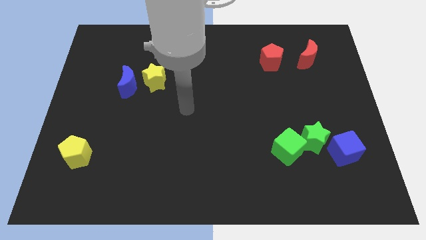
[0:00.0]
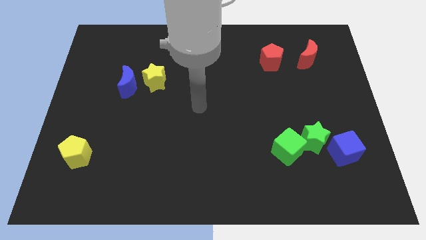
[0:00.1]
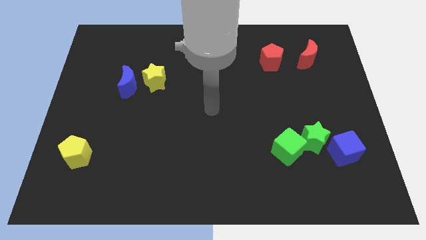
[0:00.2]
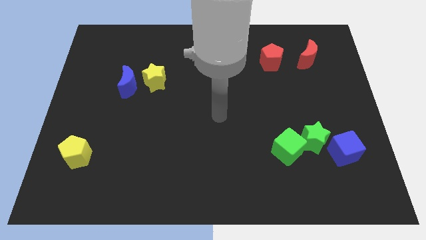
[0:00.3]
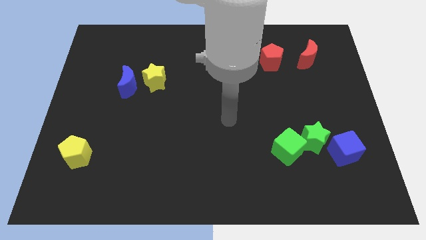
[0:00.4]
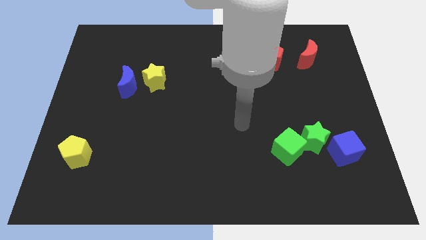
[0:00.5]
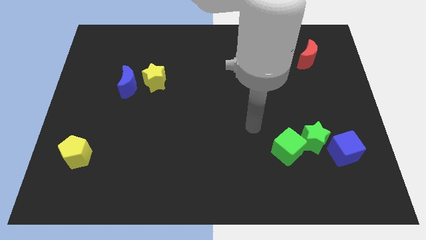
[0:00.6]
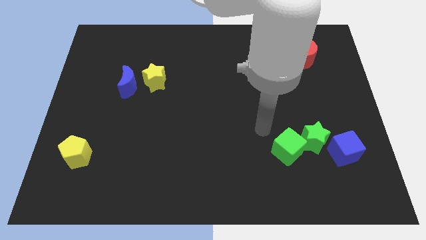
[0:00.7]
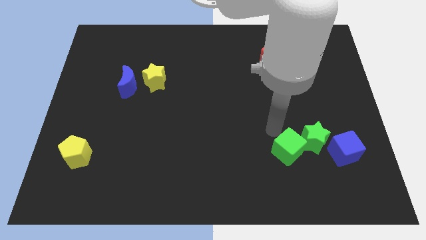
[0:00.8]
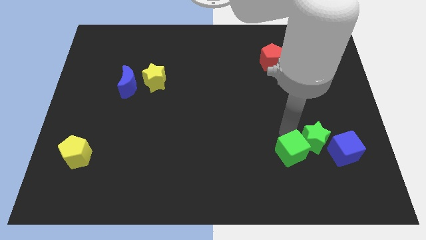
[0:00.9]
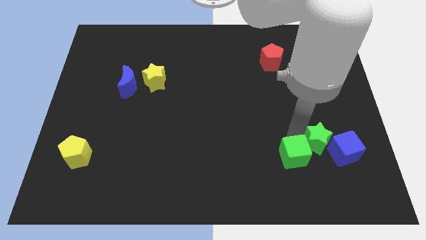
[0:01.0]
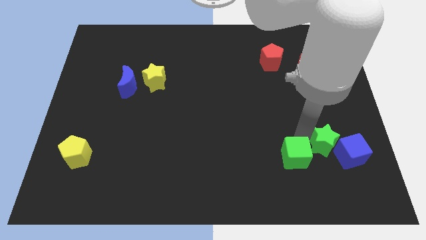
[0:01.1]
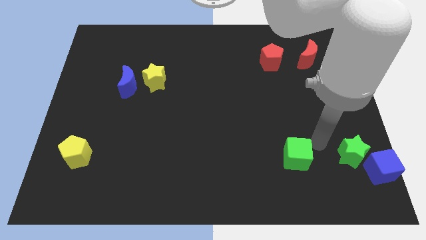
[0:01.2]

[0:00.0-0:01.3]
move the green cube away from the green star

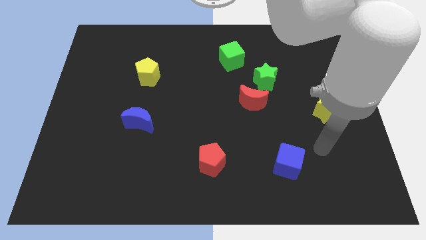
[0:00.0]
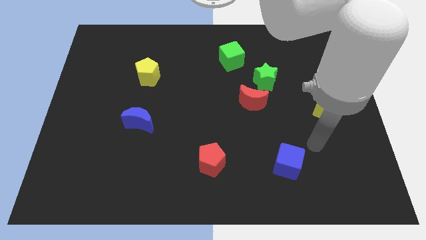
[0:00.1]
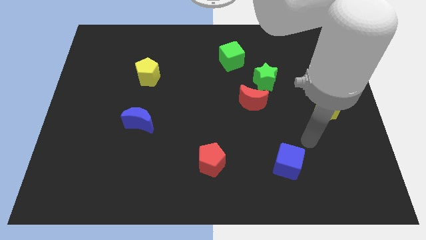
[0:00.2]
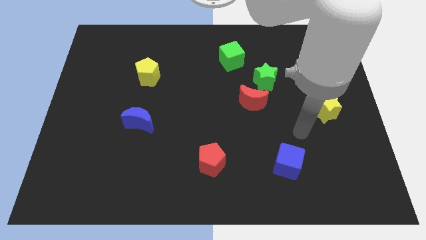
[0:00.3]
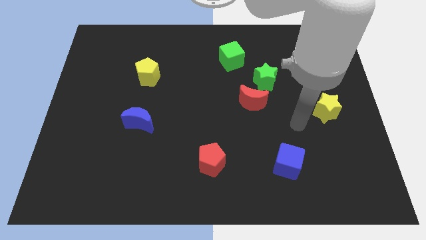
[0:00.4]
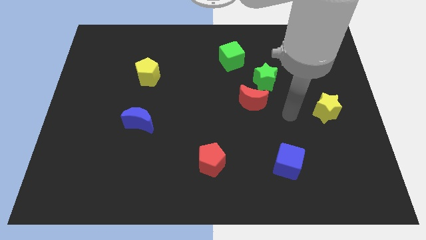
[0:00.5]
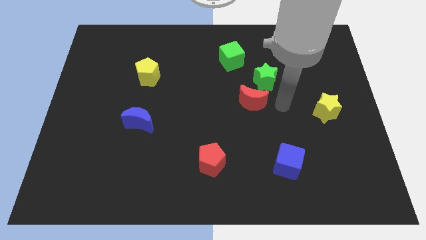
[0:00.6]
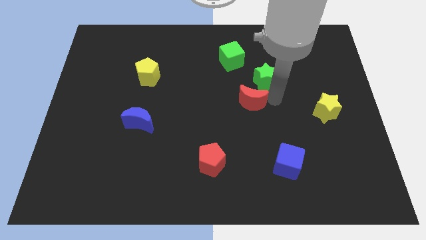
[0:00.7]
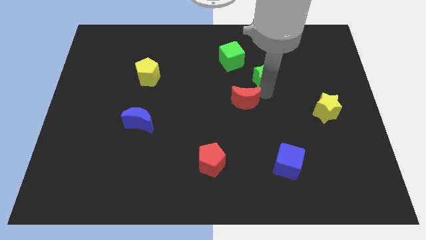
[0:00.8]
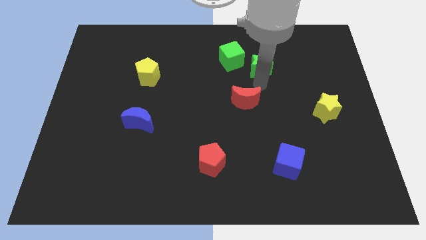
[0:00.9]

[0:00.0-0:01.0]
separate the red moon from the green star

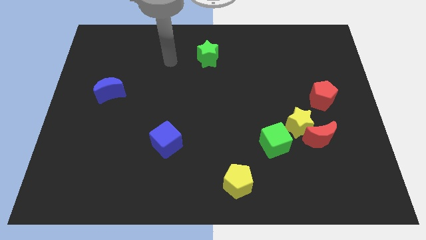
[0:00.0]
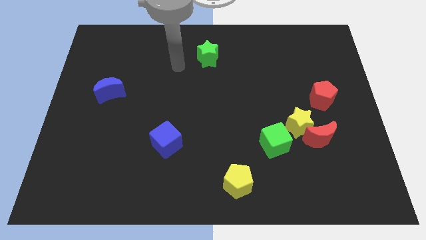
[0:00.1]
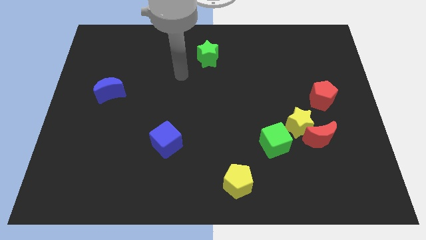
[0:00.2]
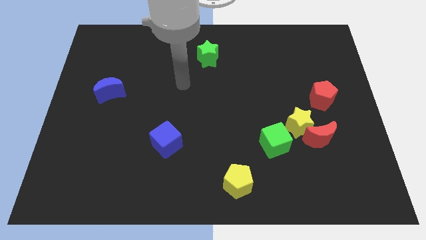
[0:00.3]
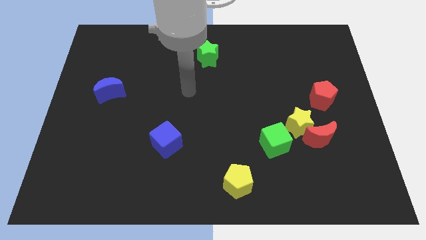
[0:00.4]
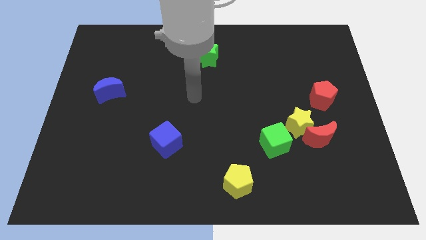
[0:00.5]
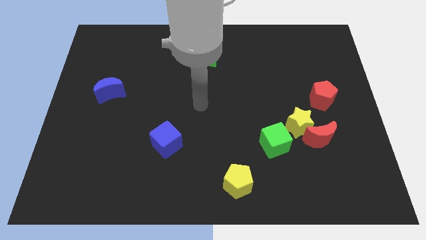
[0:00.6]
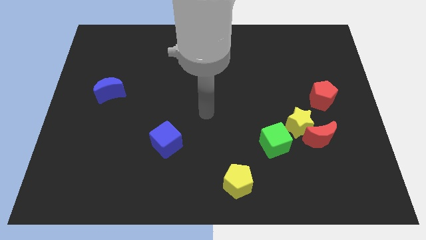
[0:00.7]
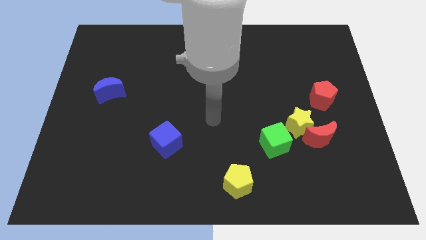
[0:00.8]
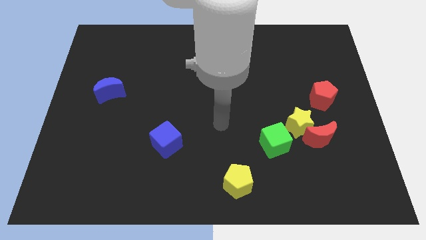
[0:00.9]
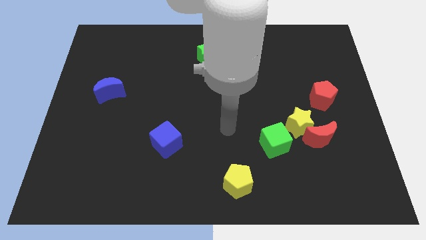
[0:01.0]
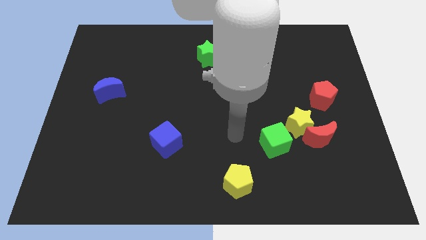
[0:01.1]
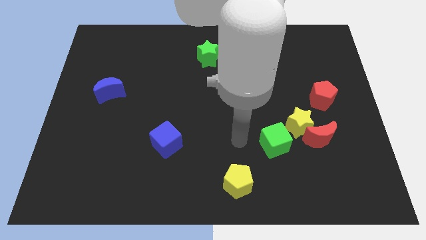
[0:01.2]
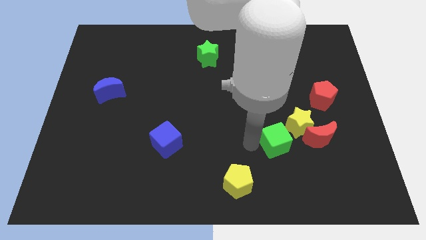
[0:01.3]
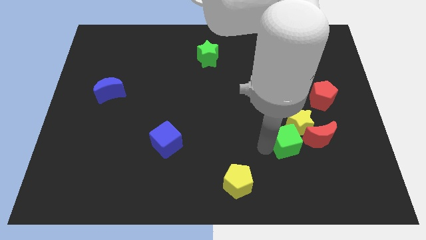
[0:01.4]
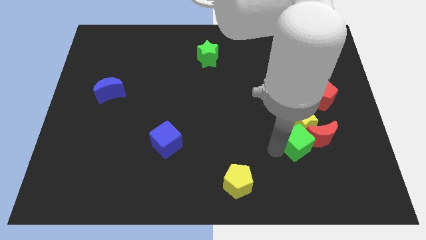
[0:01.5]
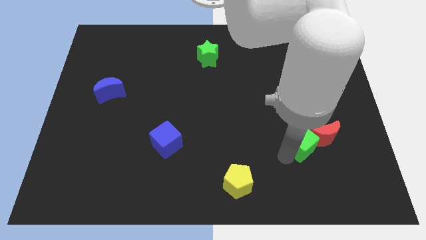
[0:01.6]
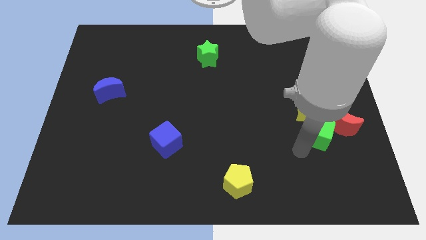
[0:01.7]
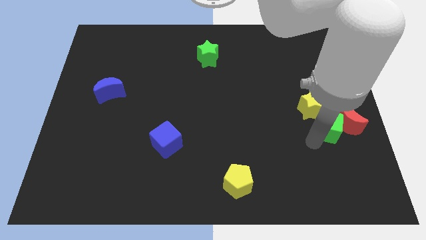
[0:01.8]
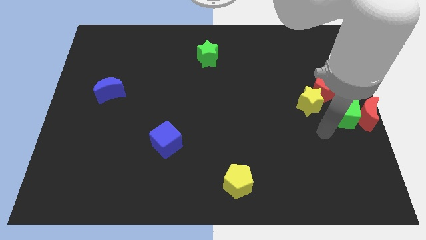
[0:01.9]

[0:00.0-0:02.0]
separate the yellow star from the red moon and green cube

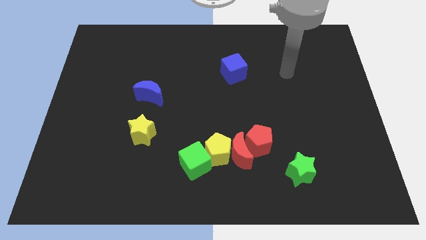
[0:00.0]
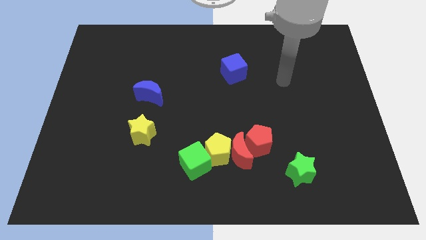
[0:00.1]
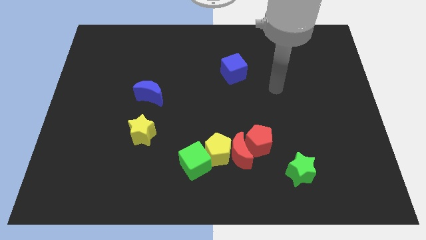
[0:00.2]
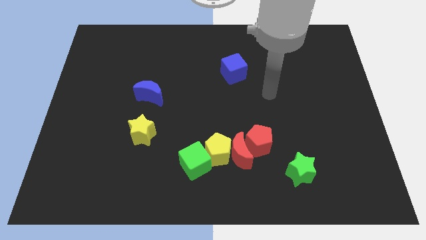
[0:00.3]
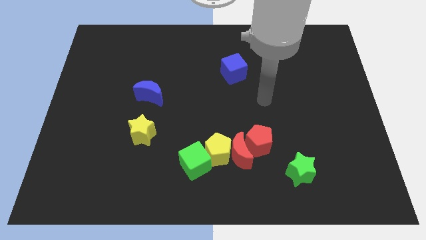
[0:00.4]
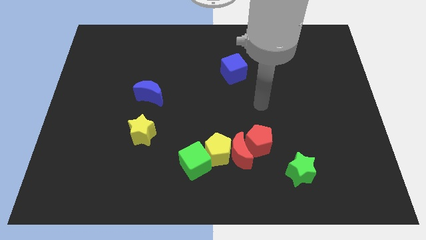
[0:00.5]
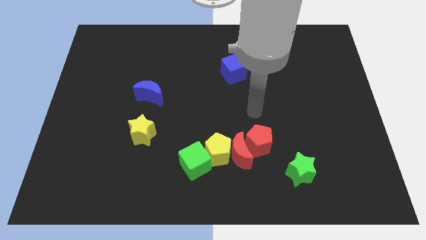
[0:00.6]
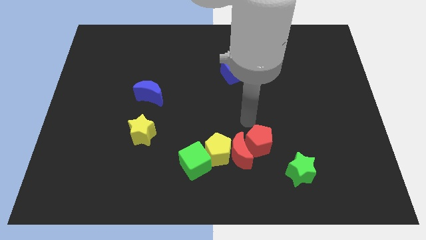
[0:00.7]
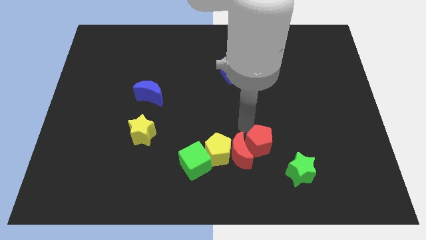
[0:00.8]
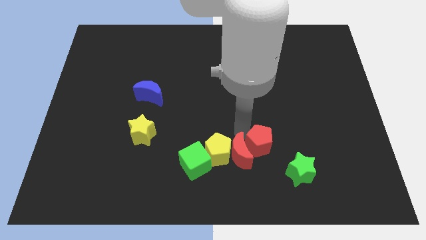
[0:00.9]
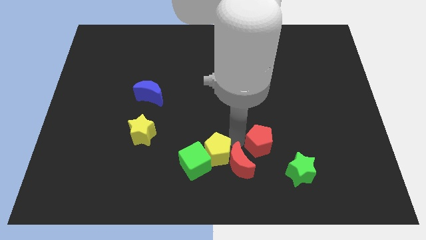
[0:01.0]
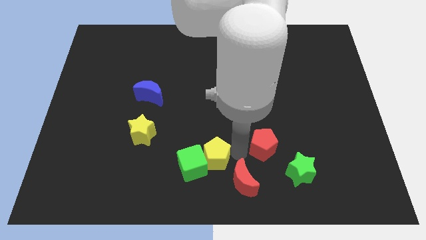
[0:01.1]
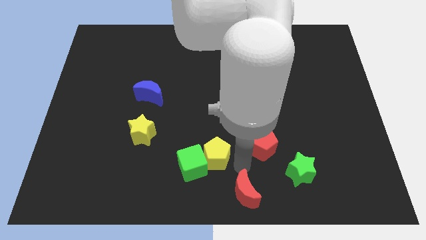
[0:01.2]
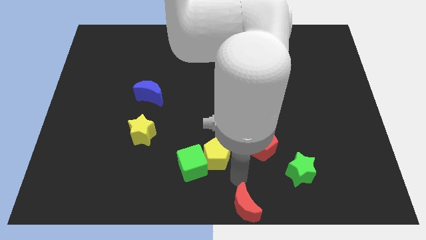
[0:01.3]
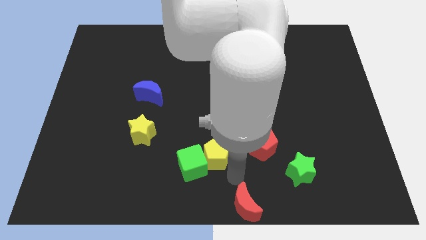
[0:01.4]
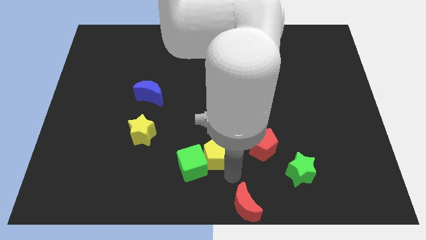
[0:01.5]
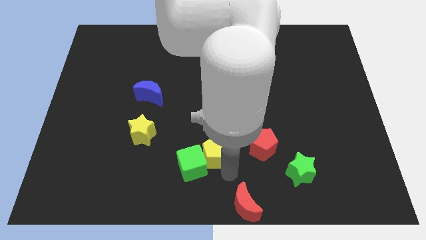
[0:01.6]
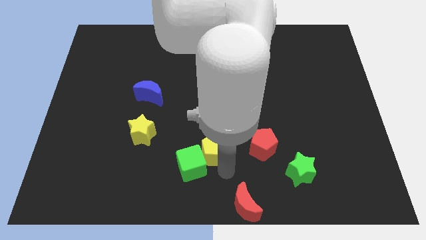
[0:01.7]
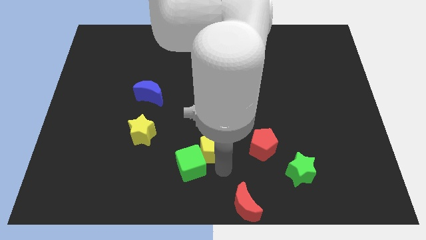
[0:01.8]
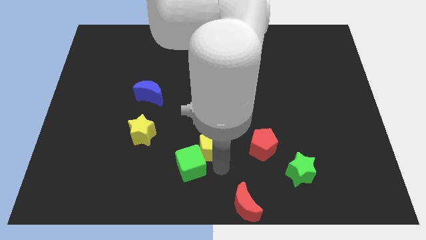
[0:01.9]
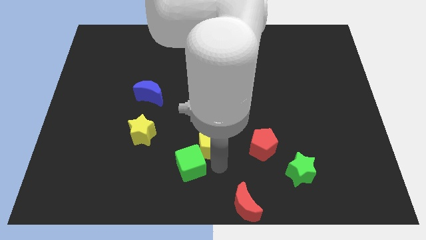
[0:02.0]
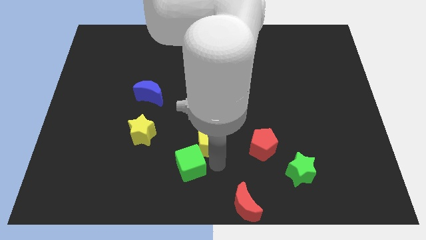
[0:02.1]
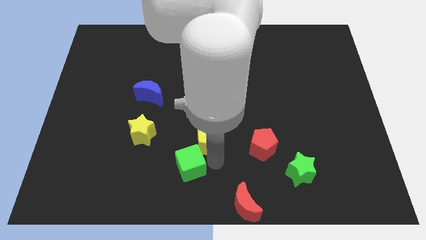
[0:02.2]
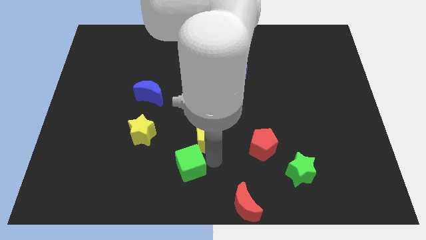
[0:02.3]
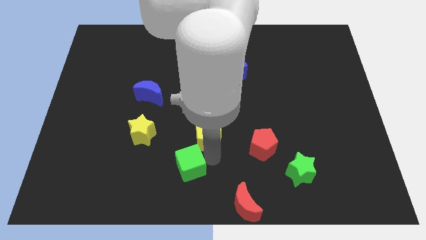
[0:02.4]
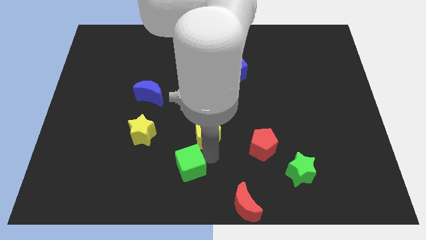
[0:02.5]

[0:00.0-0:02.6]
pull the yellow pentagon apart from the red moon, green cube, and red pentagon

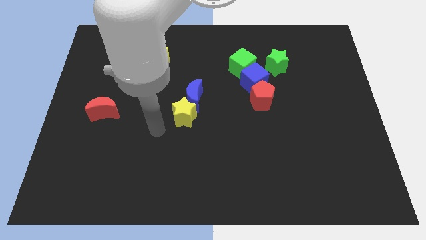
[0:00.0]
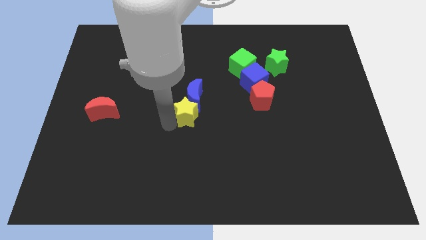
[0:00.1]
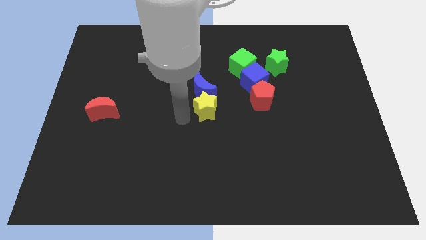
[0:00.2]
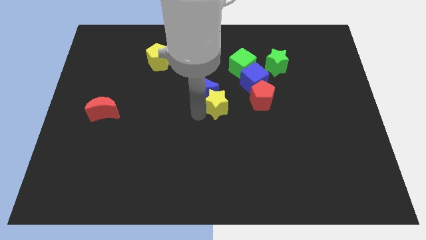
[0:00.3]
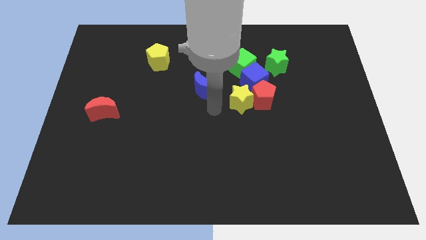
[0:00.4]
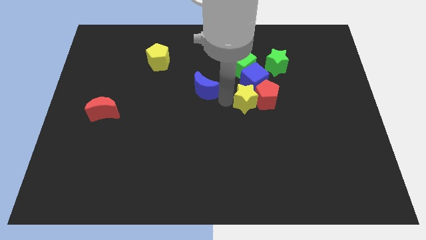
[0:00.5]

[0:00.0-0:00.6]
move the blue moon away from the yellow star

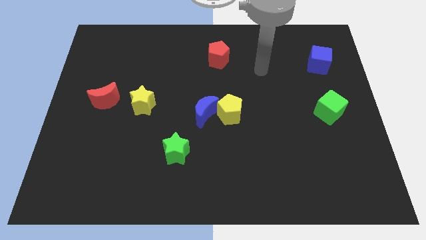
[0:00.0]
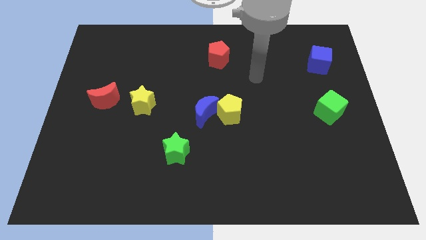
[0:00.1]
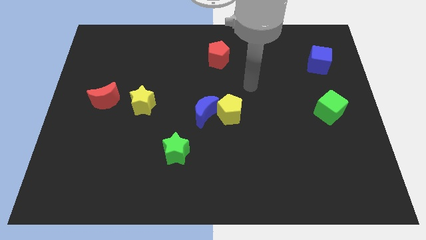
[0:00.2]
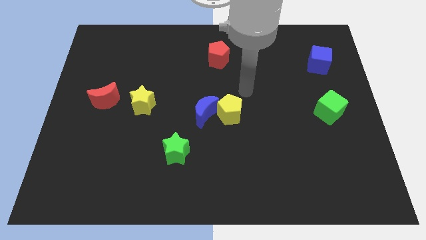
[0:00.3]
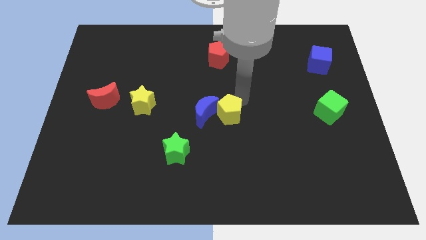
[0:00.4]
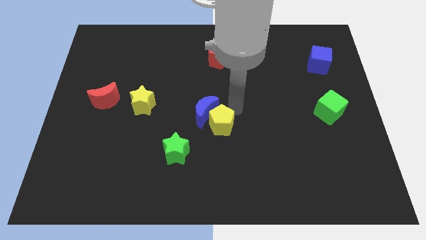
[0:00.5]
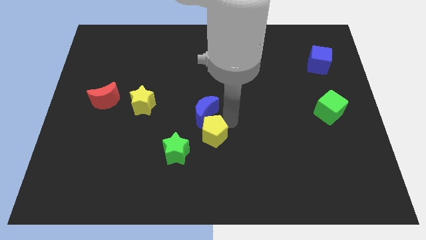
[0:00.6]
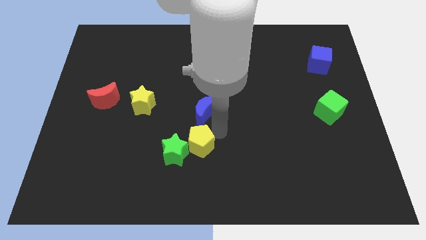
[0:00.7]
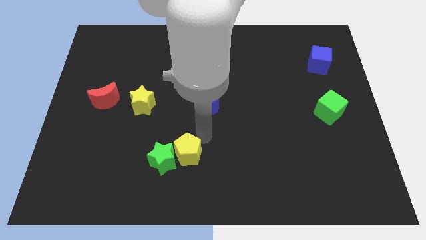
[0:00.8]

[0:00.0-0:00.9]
separate the blue moon from the yellow pentagon

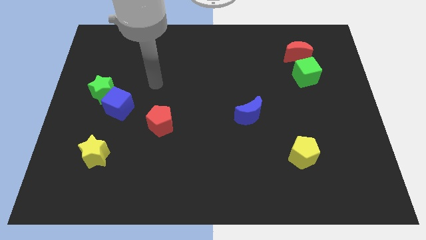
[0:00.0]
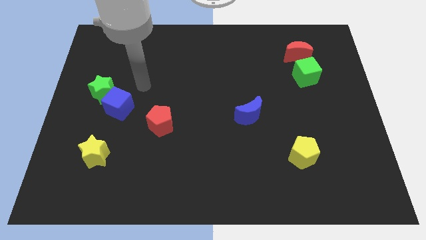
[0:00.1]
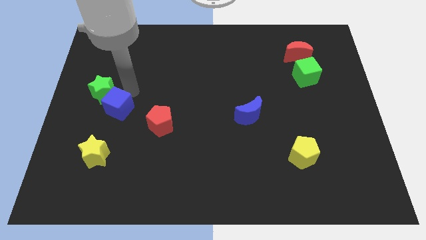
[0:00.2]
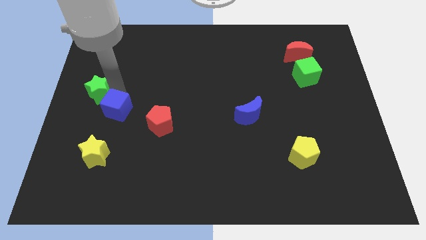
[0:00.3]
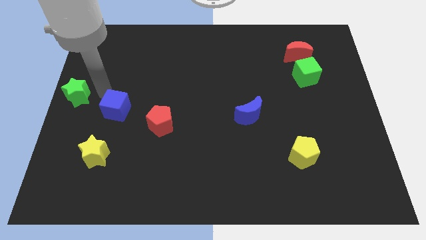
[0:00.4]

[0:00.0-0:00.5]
pull the blue cube apart from the green star

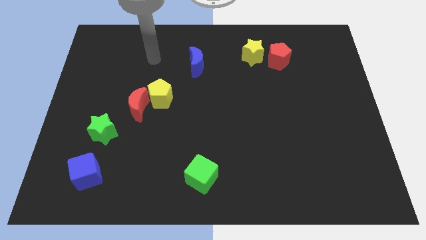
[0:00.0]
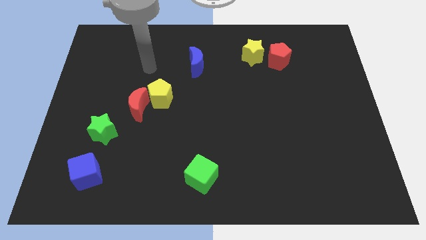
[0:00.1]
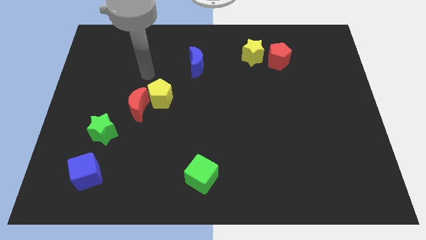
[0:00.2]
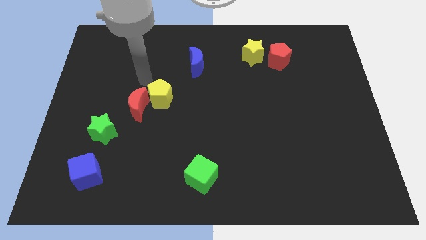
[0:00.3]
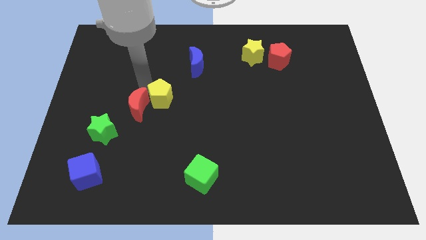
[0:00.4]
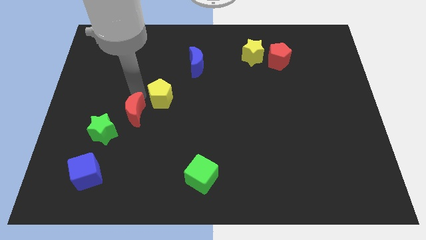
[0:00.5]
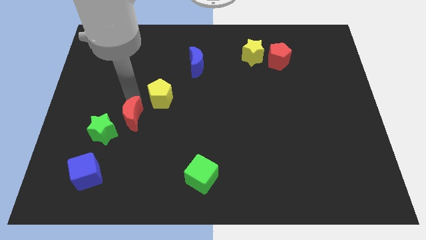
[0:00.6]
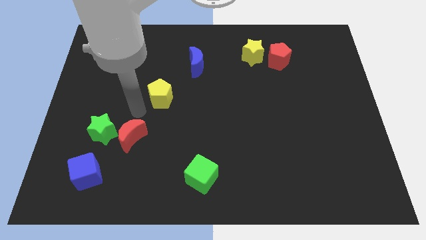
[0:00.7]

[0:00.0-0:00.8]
pull the yellow pentagon apart from the red moon
